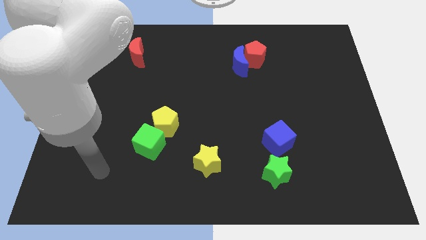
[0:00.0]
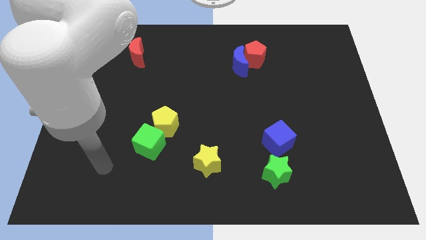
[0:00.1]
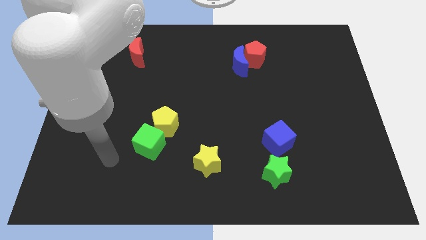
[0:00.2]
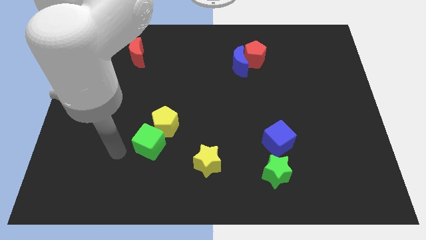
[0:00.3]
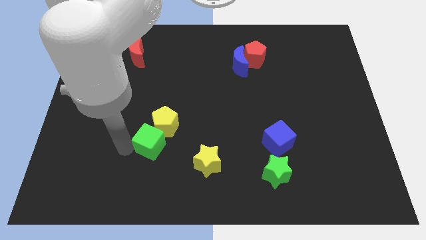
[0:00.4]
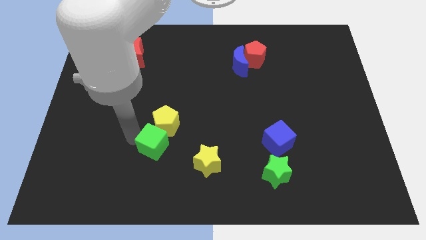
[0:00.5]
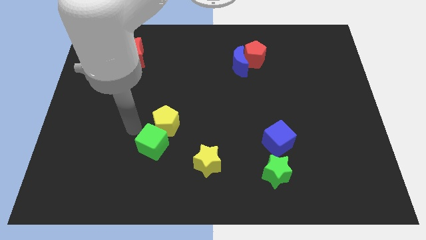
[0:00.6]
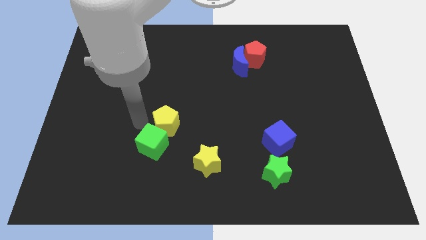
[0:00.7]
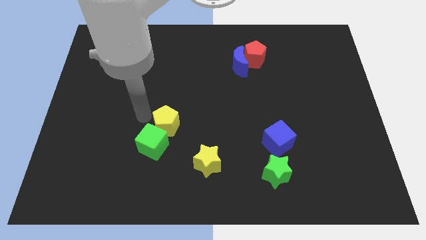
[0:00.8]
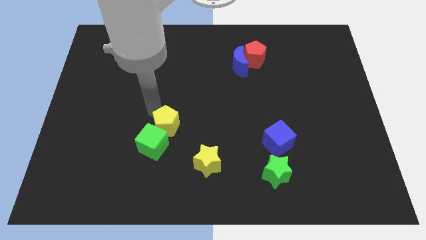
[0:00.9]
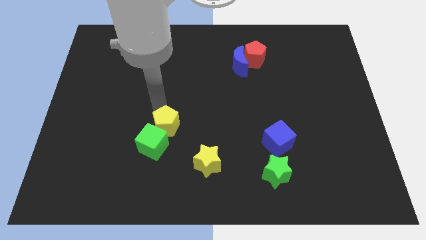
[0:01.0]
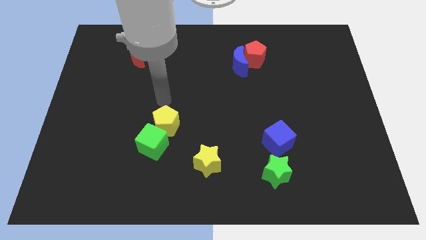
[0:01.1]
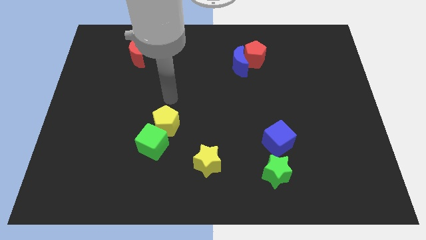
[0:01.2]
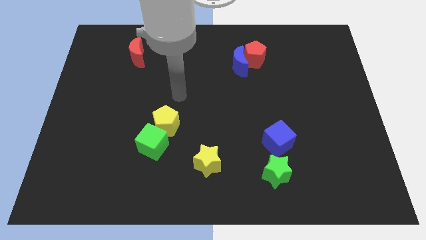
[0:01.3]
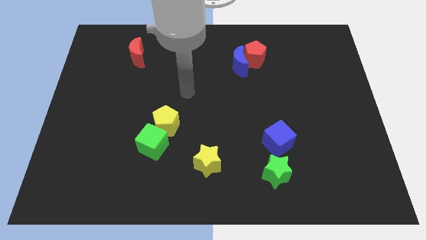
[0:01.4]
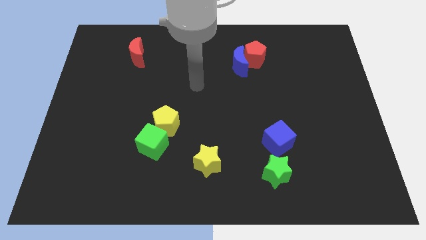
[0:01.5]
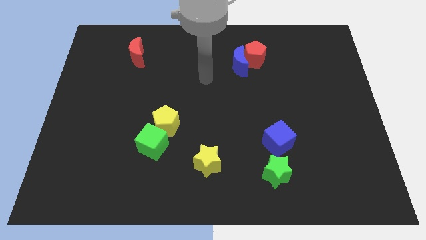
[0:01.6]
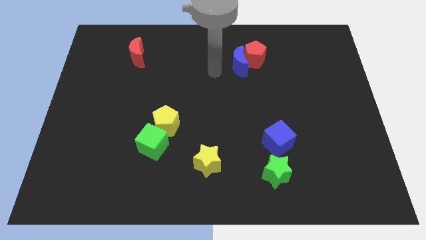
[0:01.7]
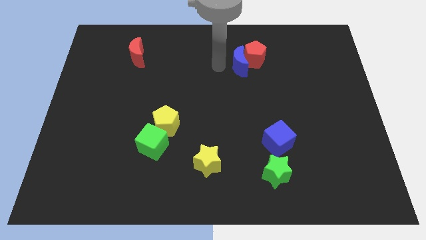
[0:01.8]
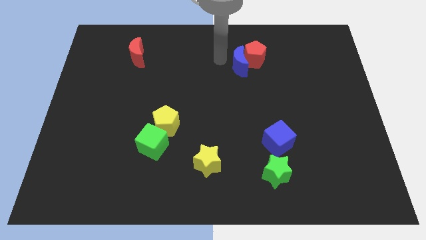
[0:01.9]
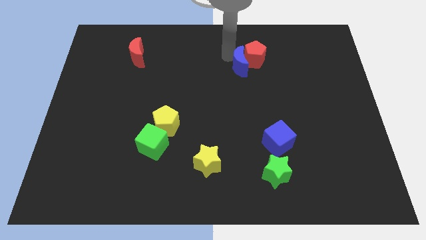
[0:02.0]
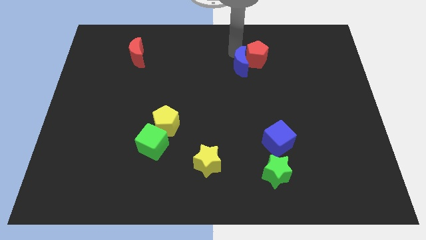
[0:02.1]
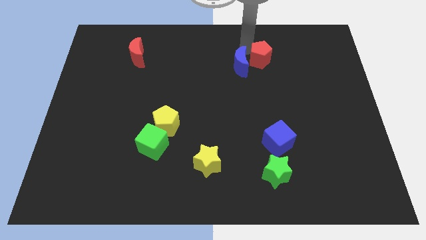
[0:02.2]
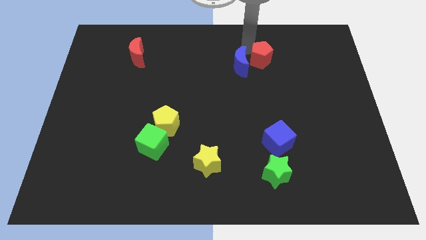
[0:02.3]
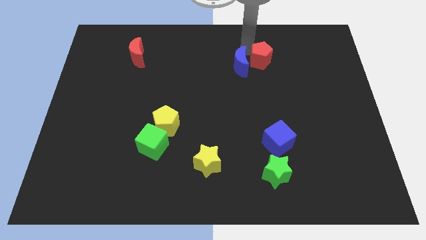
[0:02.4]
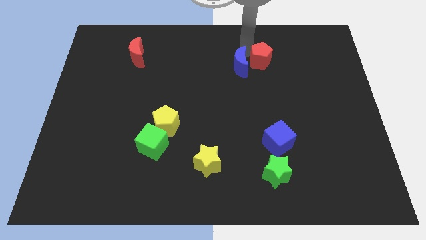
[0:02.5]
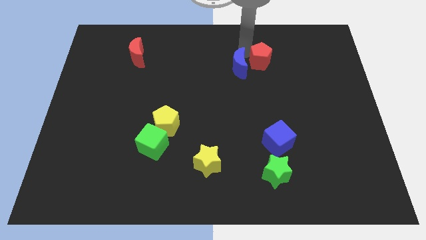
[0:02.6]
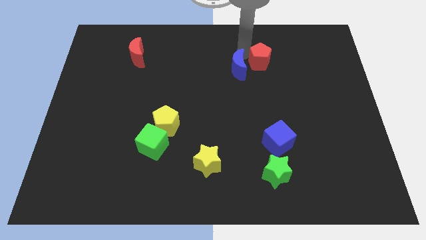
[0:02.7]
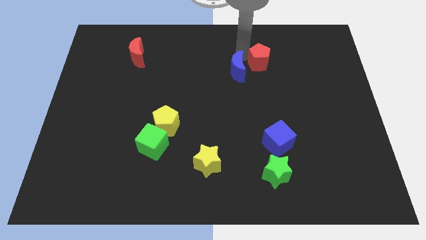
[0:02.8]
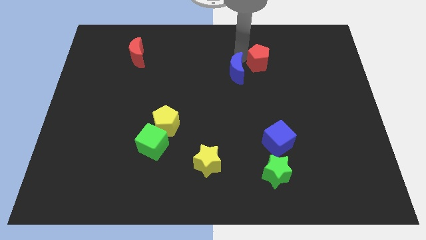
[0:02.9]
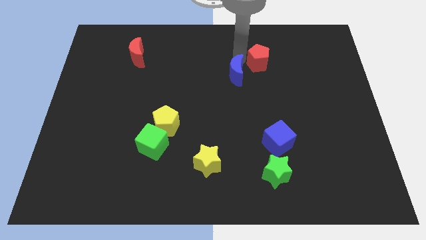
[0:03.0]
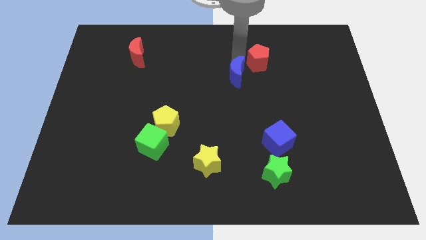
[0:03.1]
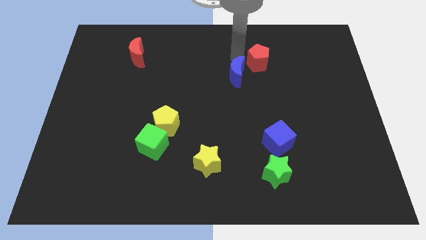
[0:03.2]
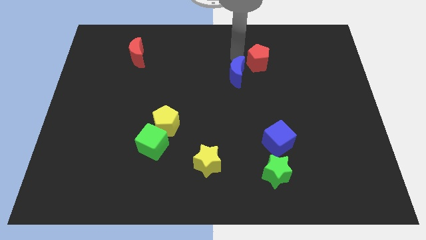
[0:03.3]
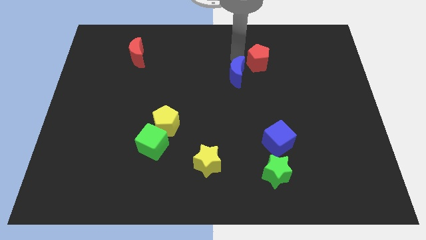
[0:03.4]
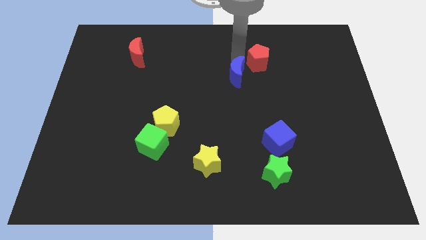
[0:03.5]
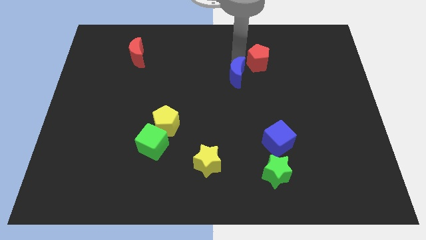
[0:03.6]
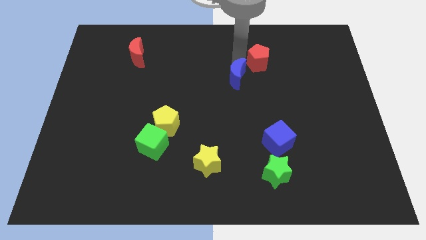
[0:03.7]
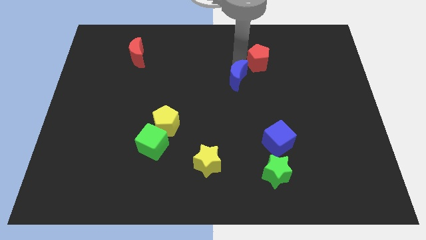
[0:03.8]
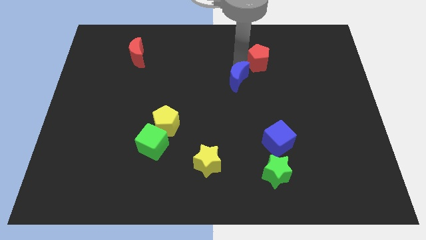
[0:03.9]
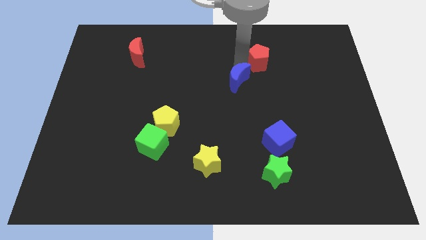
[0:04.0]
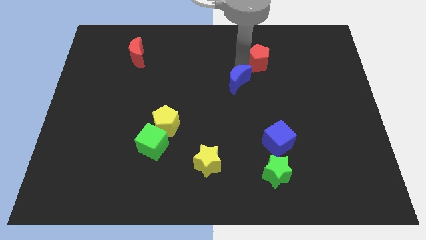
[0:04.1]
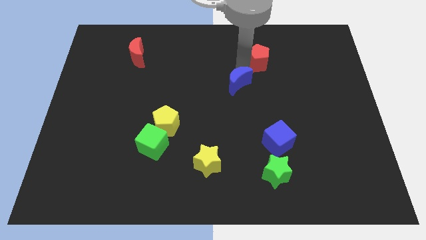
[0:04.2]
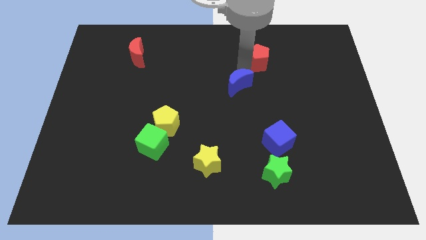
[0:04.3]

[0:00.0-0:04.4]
slightly push the blue moon downwards

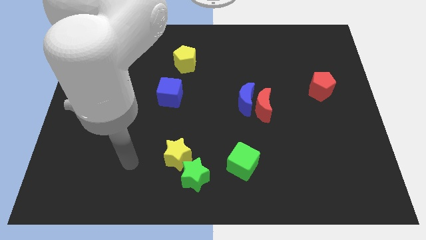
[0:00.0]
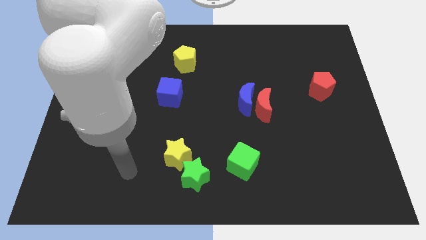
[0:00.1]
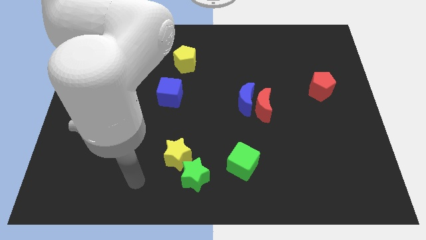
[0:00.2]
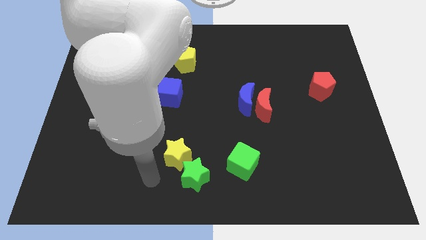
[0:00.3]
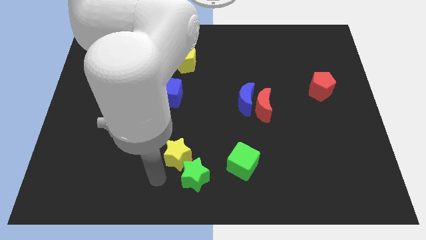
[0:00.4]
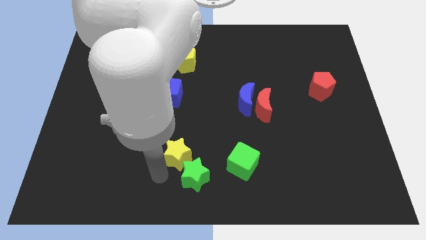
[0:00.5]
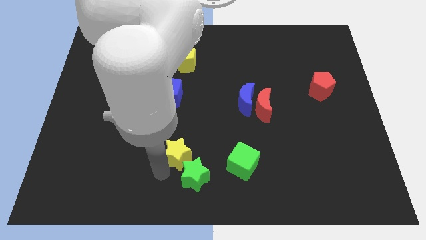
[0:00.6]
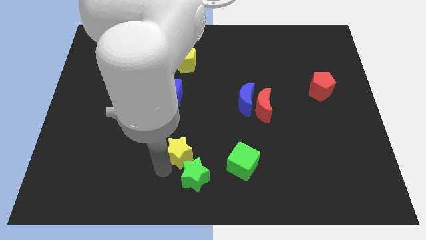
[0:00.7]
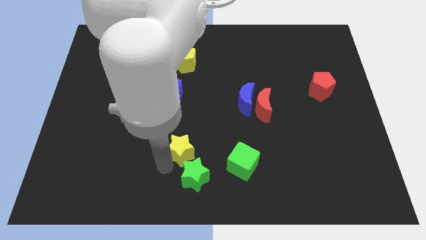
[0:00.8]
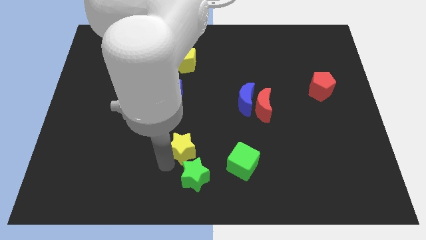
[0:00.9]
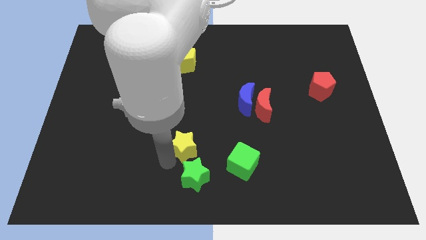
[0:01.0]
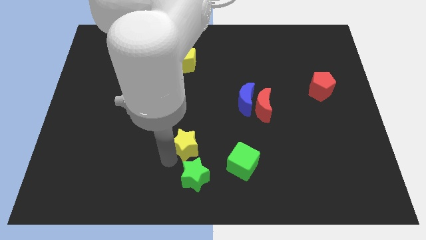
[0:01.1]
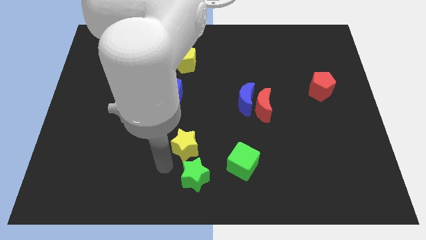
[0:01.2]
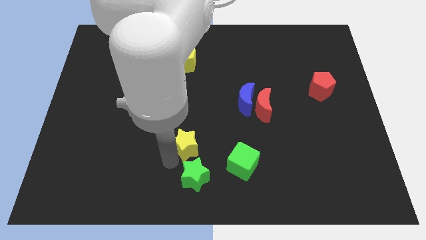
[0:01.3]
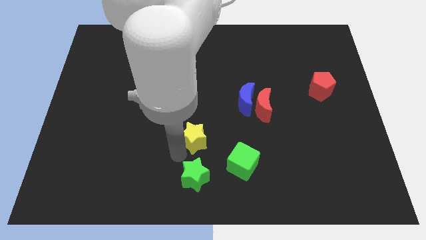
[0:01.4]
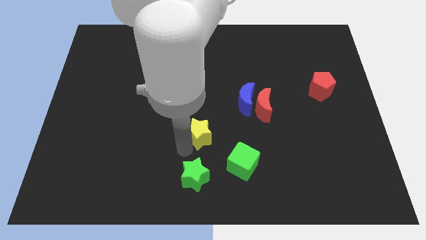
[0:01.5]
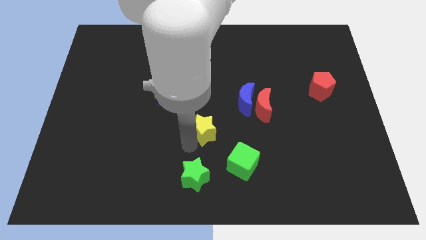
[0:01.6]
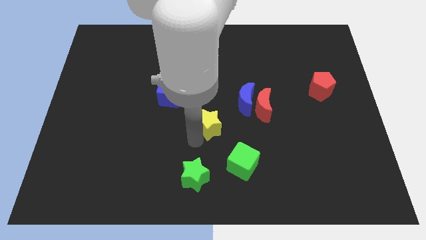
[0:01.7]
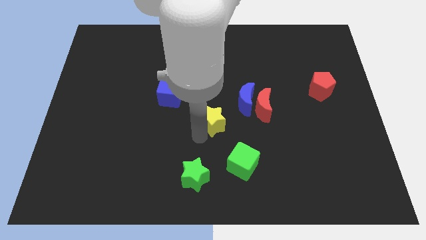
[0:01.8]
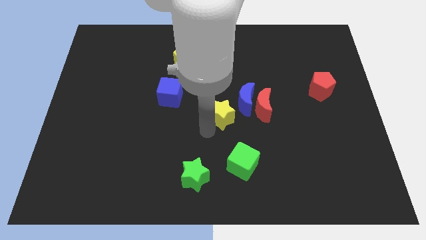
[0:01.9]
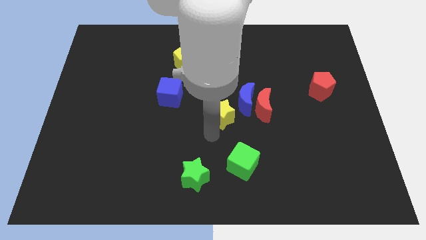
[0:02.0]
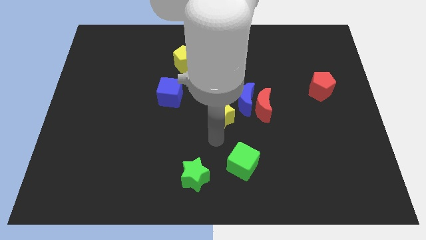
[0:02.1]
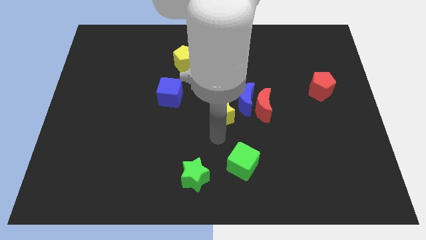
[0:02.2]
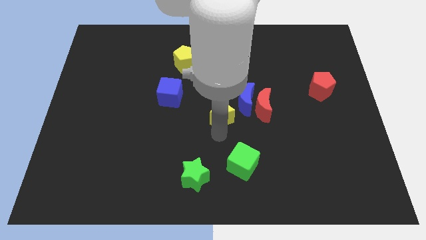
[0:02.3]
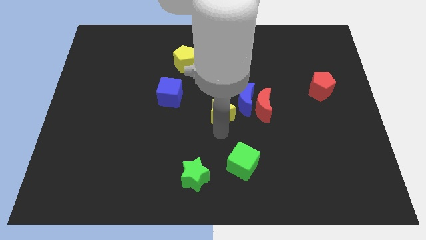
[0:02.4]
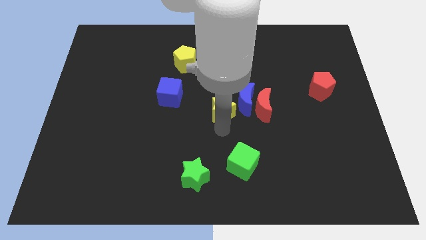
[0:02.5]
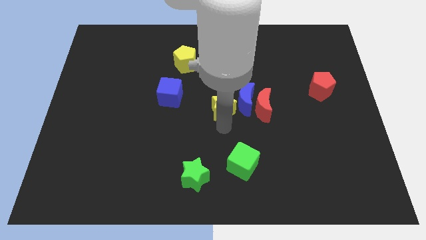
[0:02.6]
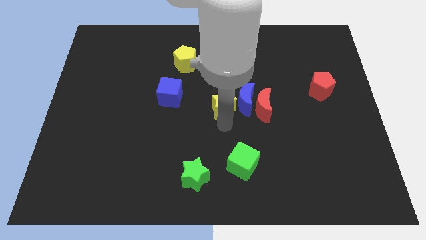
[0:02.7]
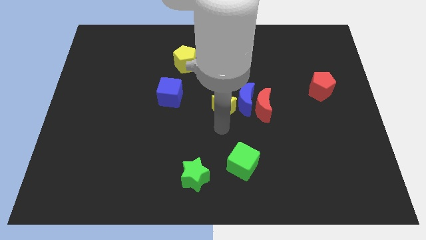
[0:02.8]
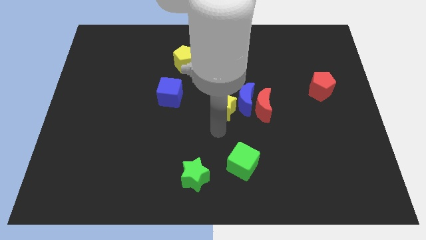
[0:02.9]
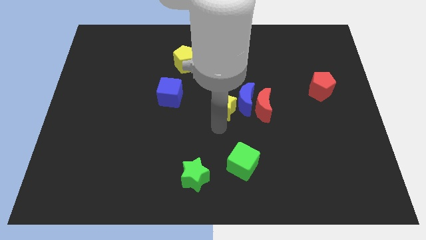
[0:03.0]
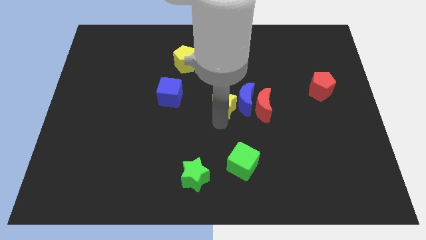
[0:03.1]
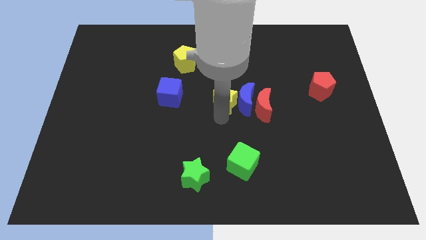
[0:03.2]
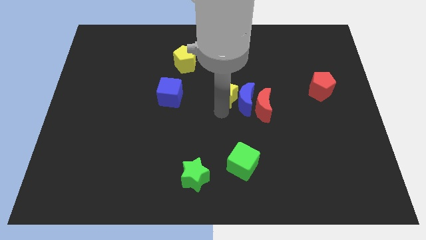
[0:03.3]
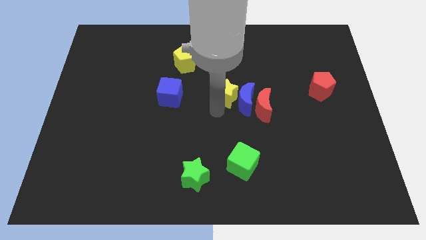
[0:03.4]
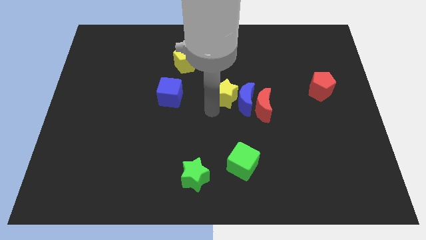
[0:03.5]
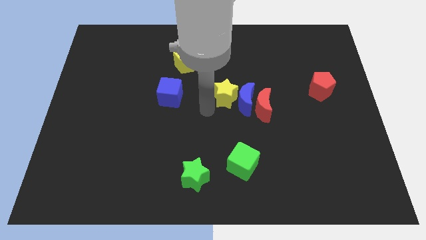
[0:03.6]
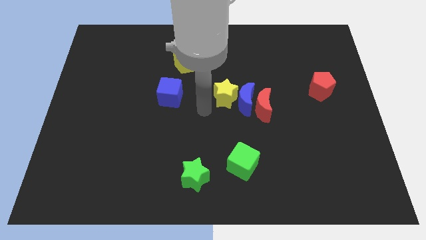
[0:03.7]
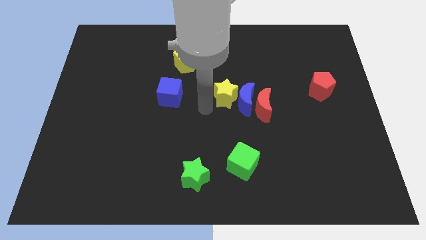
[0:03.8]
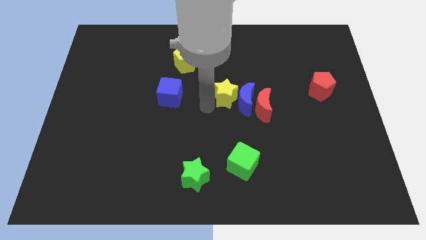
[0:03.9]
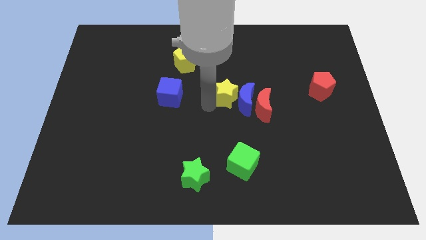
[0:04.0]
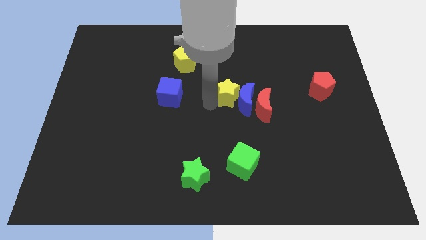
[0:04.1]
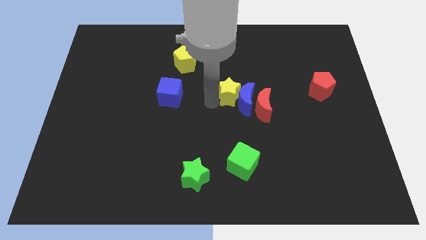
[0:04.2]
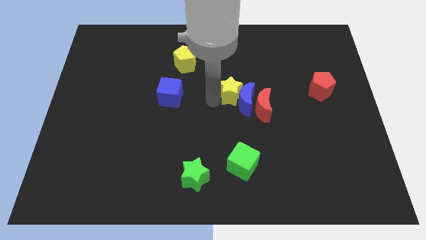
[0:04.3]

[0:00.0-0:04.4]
push the yellow star up and then to the right

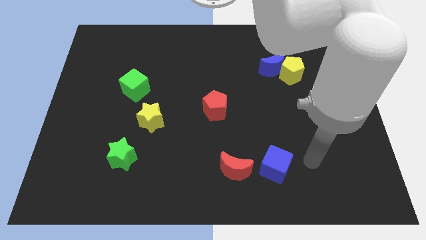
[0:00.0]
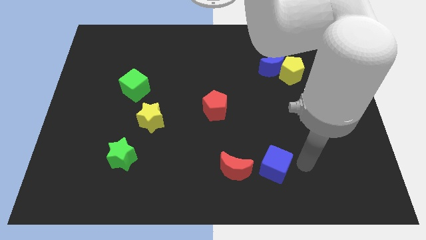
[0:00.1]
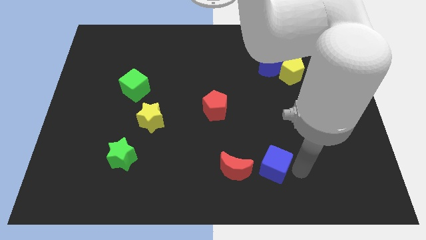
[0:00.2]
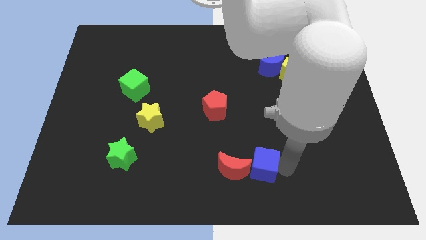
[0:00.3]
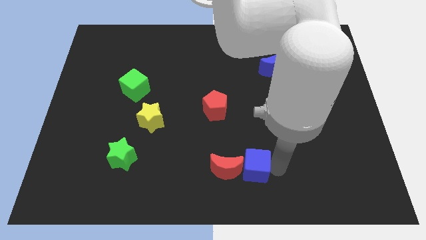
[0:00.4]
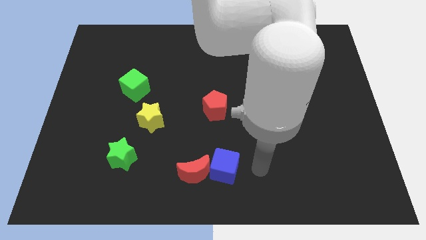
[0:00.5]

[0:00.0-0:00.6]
slightly push the red moon to the left
